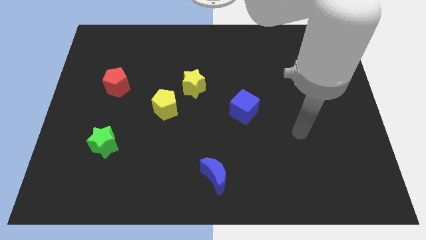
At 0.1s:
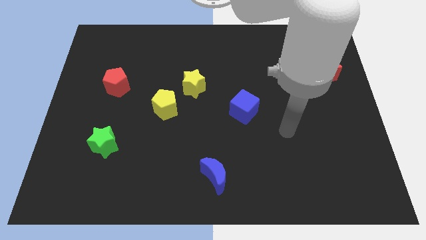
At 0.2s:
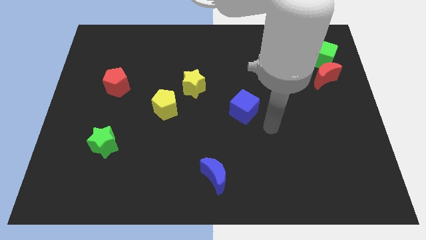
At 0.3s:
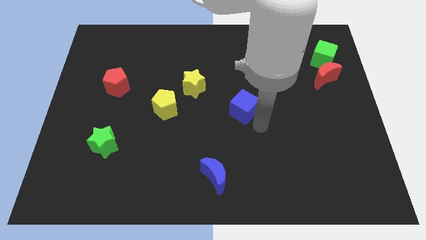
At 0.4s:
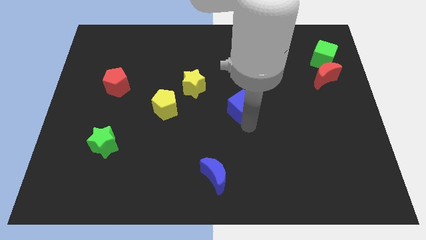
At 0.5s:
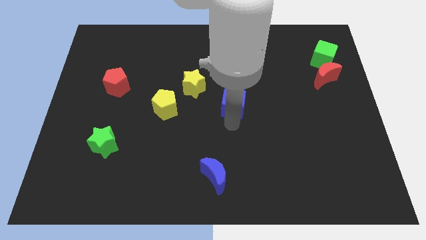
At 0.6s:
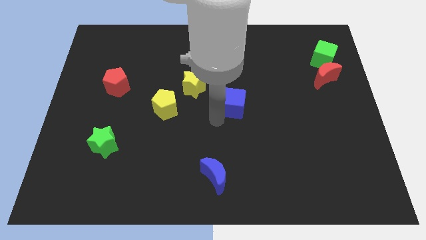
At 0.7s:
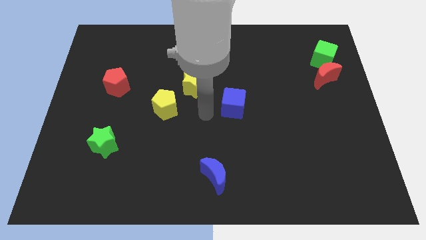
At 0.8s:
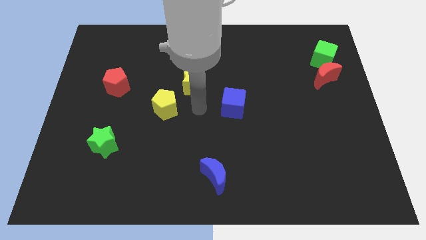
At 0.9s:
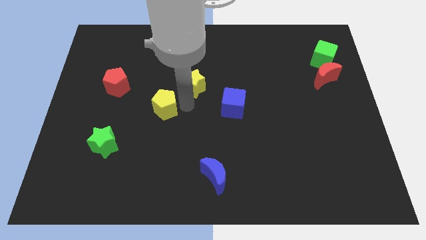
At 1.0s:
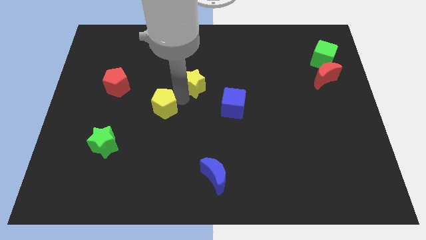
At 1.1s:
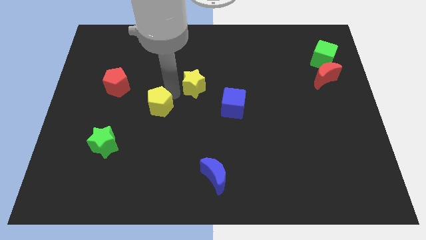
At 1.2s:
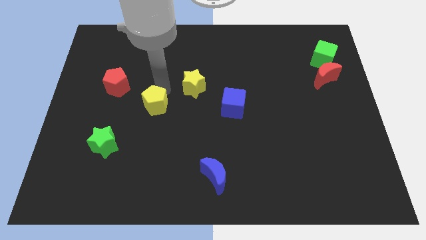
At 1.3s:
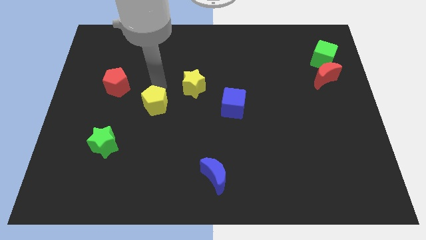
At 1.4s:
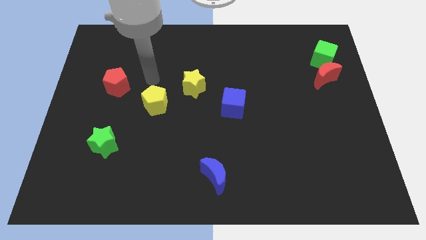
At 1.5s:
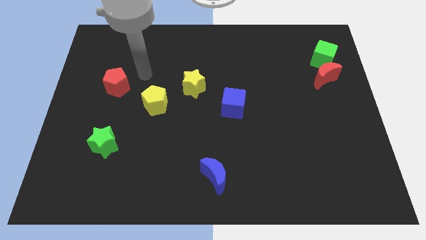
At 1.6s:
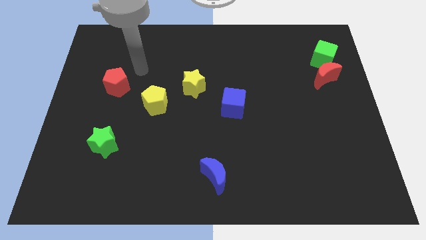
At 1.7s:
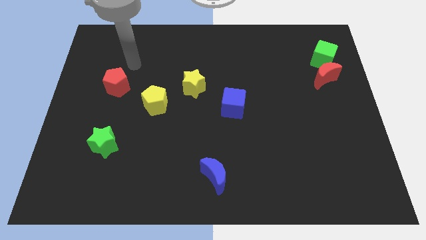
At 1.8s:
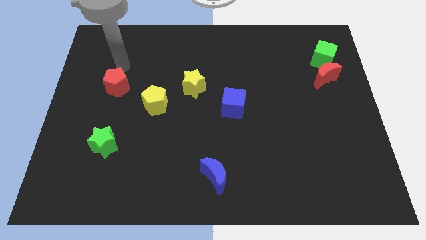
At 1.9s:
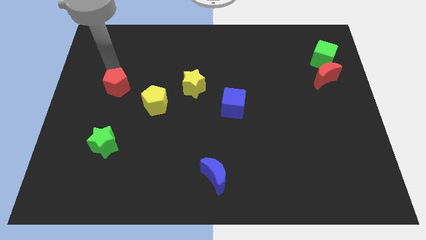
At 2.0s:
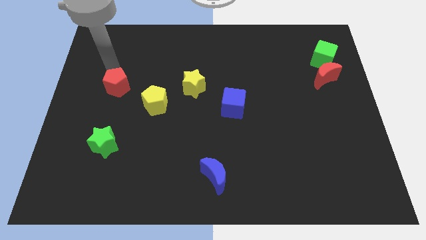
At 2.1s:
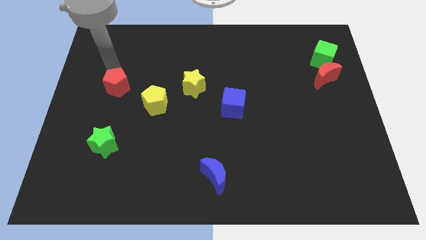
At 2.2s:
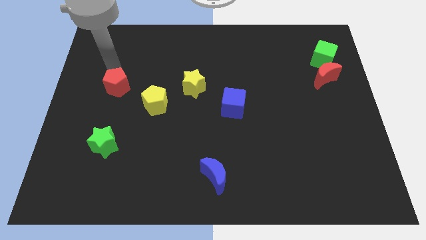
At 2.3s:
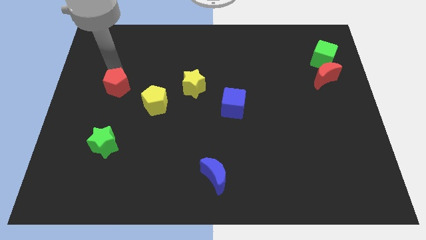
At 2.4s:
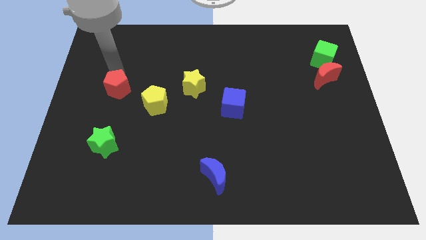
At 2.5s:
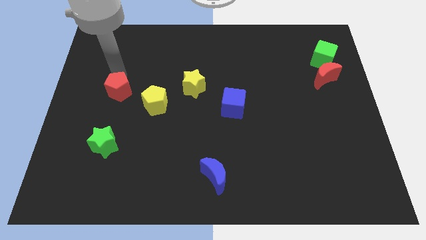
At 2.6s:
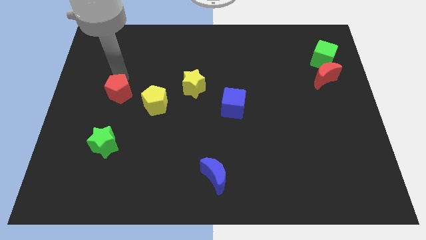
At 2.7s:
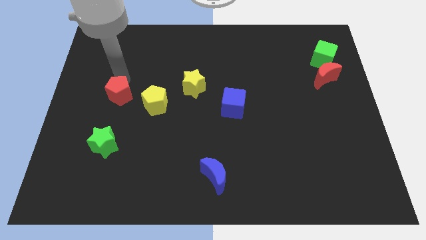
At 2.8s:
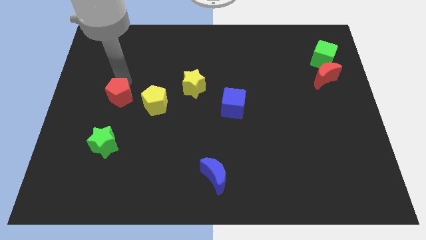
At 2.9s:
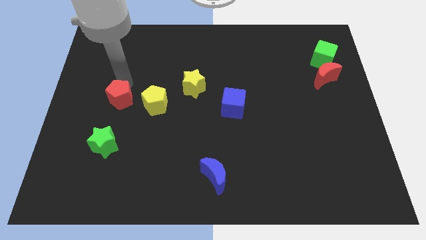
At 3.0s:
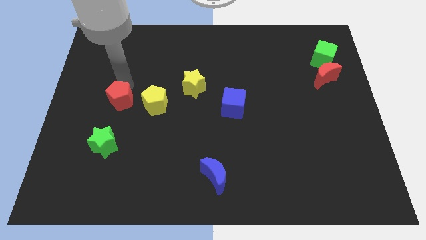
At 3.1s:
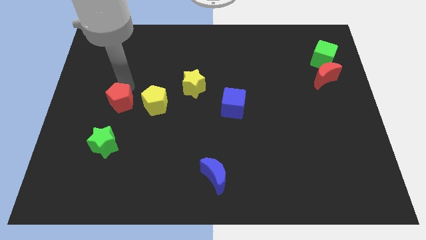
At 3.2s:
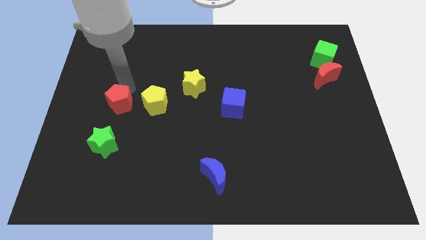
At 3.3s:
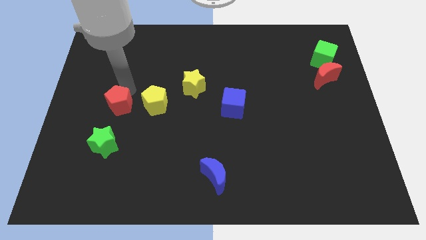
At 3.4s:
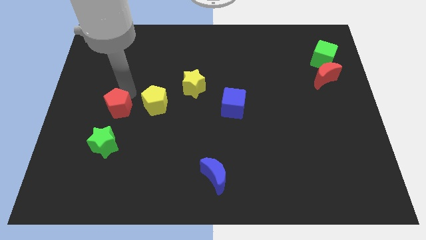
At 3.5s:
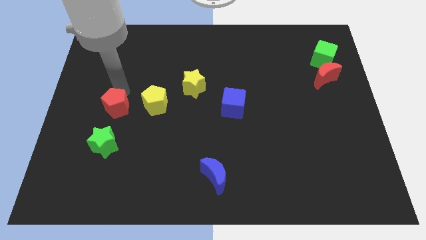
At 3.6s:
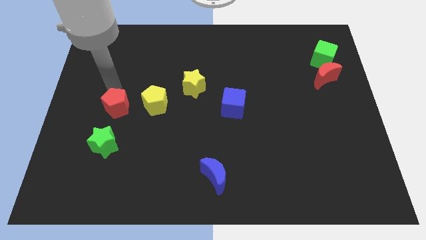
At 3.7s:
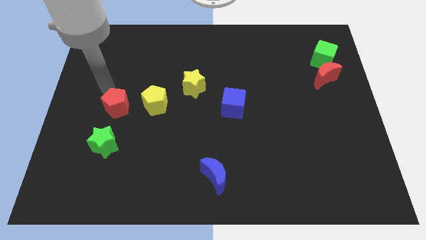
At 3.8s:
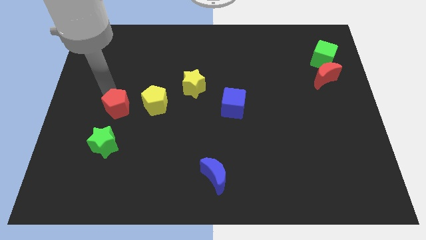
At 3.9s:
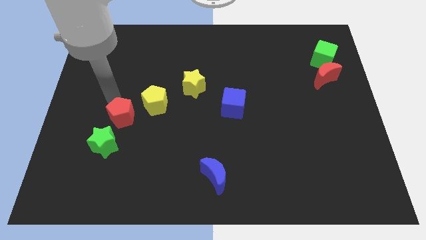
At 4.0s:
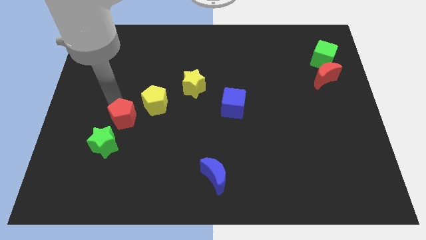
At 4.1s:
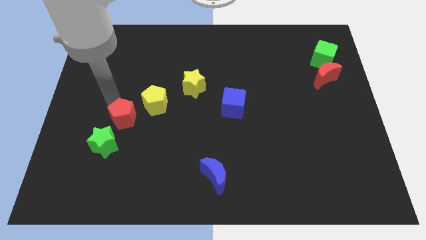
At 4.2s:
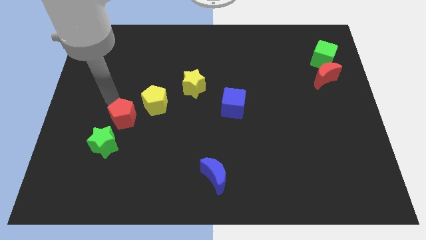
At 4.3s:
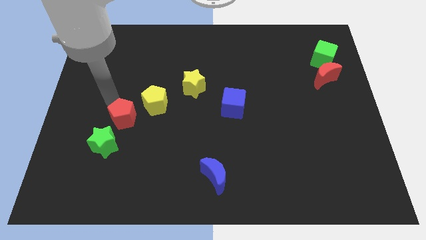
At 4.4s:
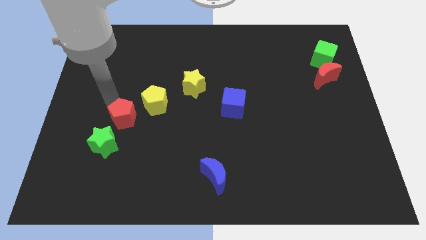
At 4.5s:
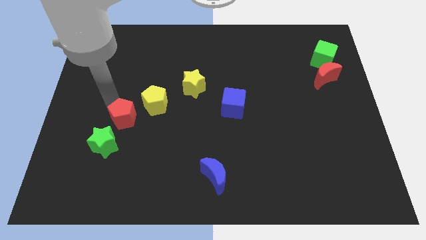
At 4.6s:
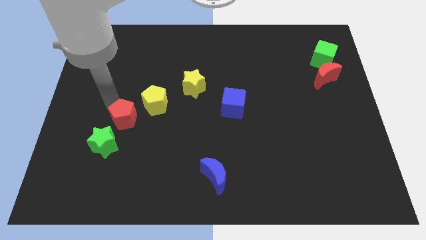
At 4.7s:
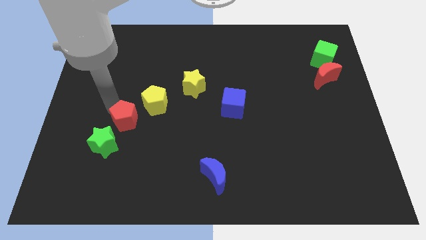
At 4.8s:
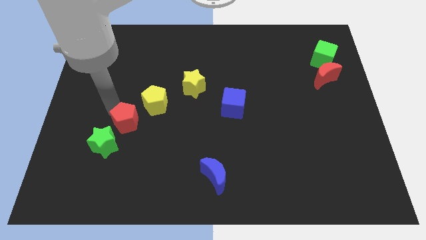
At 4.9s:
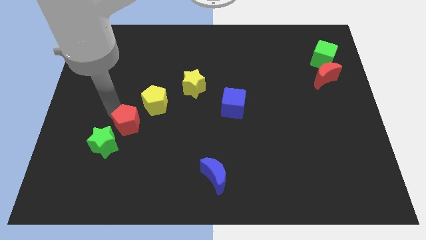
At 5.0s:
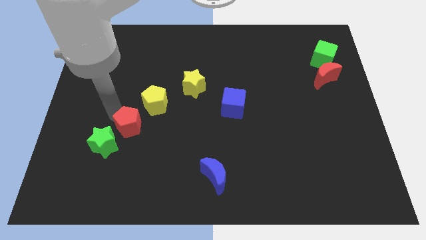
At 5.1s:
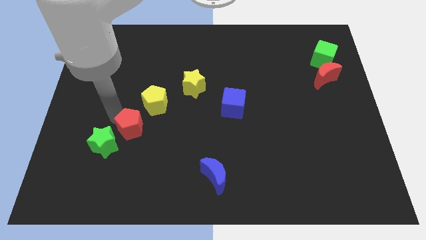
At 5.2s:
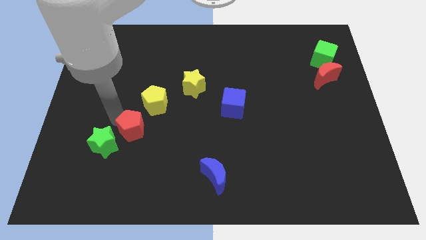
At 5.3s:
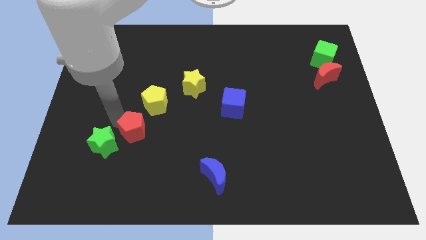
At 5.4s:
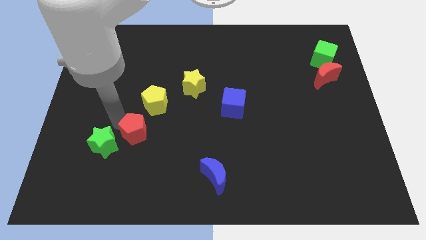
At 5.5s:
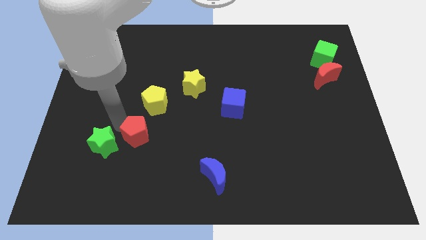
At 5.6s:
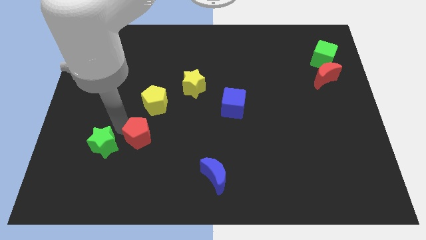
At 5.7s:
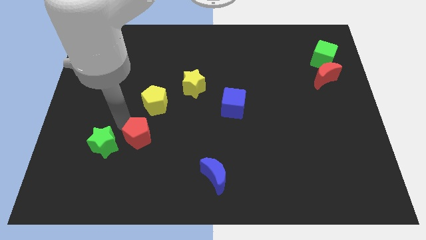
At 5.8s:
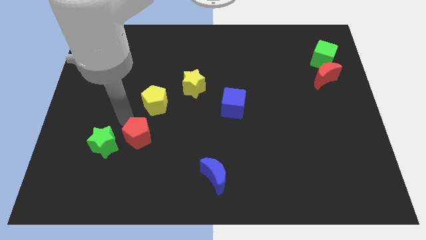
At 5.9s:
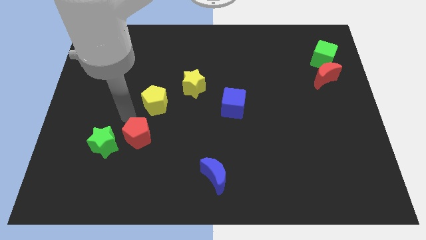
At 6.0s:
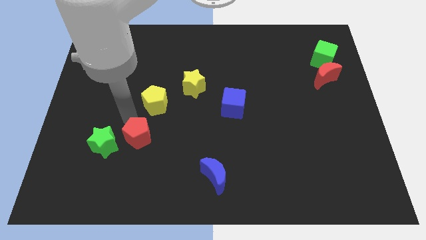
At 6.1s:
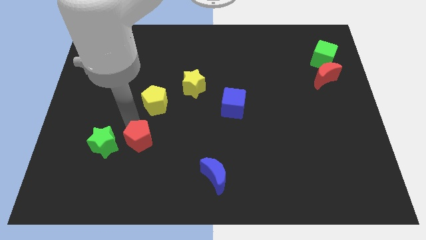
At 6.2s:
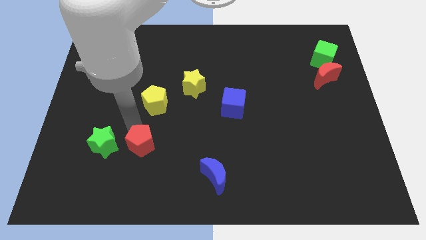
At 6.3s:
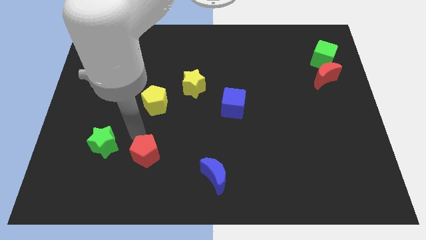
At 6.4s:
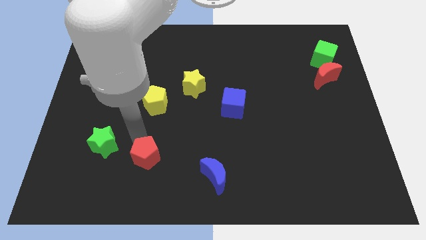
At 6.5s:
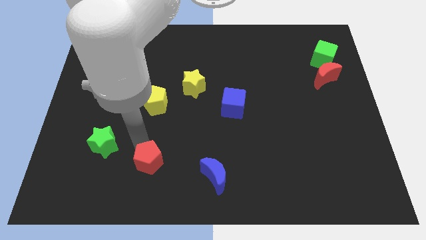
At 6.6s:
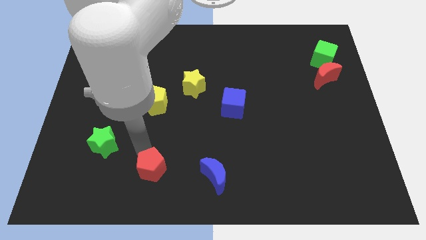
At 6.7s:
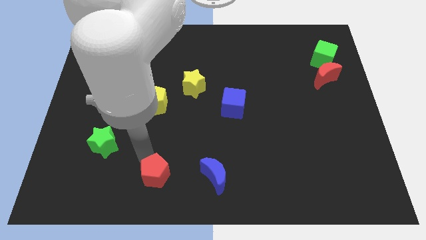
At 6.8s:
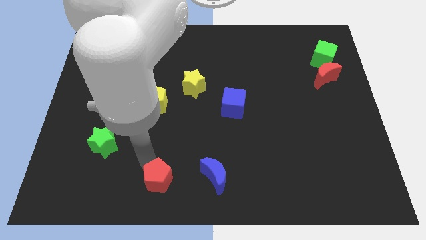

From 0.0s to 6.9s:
put the red pentagon to the bottom side
